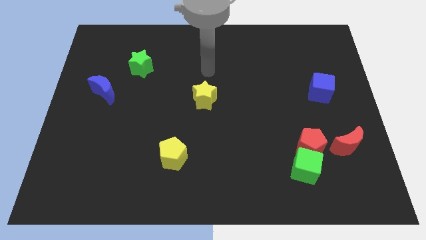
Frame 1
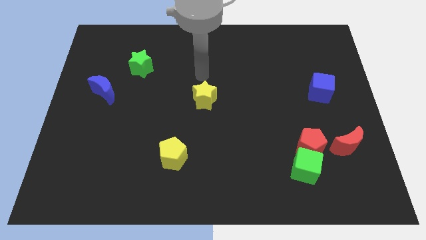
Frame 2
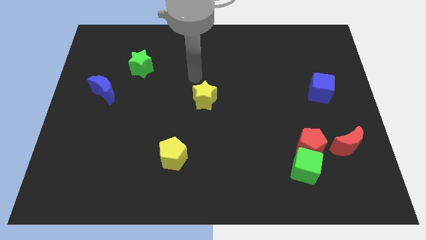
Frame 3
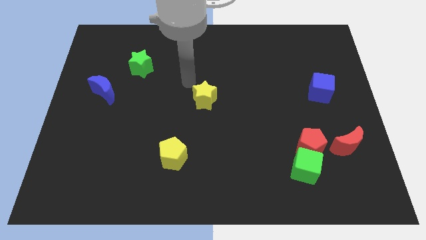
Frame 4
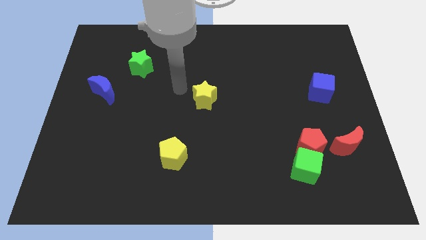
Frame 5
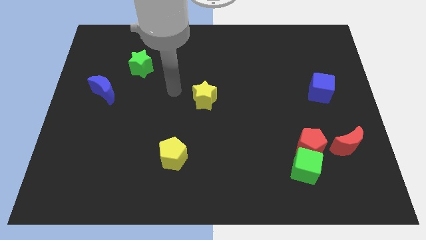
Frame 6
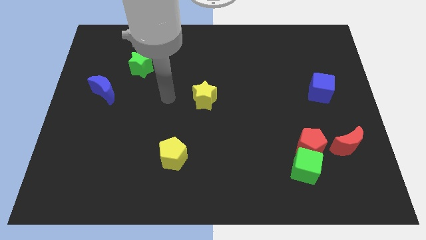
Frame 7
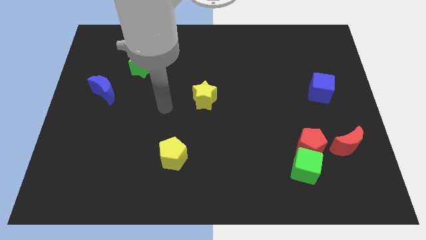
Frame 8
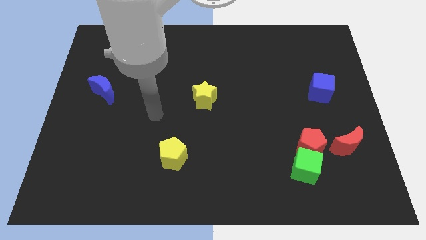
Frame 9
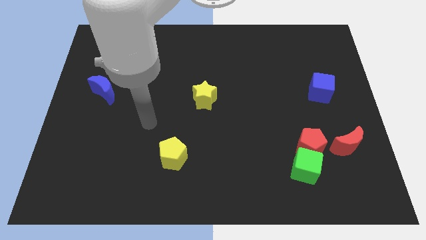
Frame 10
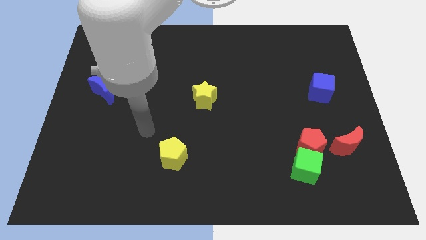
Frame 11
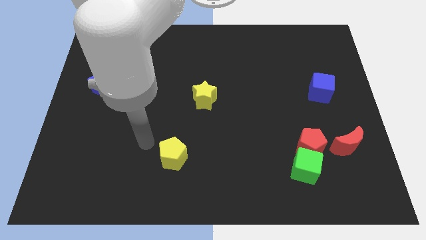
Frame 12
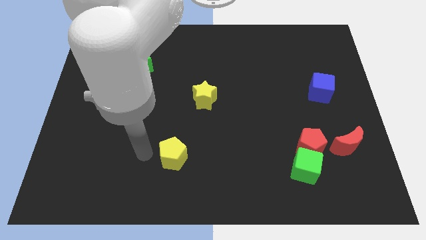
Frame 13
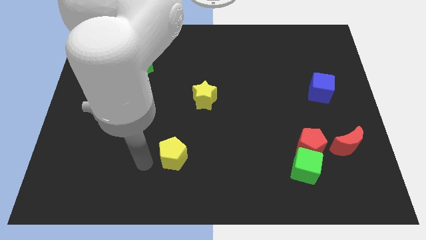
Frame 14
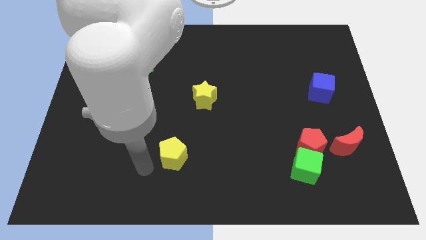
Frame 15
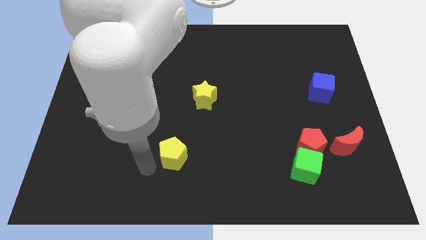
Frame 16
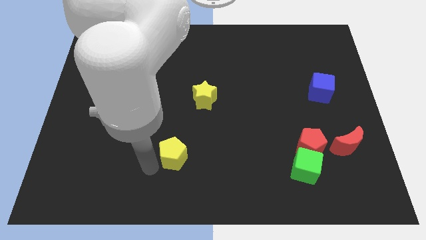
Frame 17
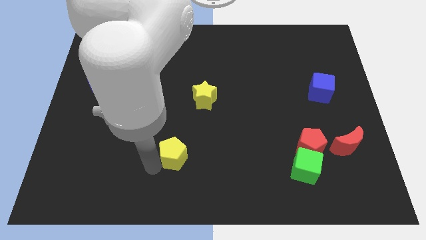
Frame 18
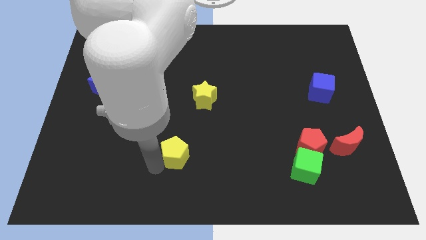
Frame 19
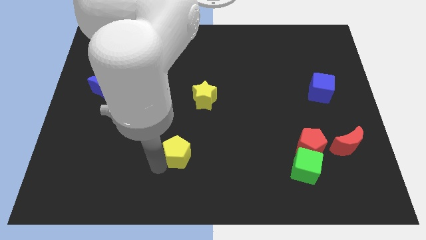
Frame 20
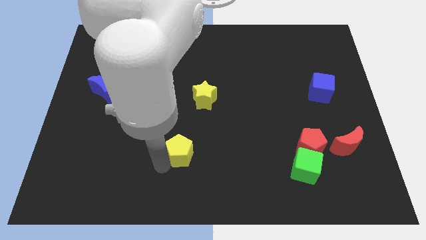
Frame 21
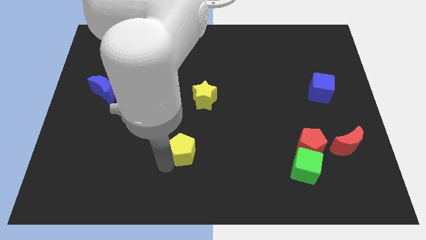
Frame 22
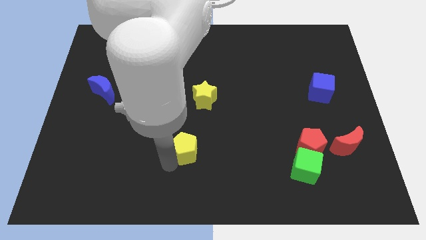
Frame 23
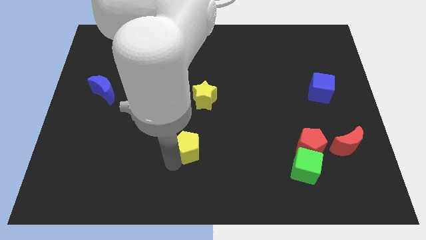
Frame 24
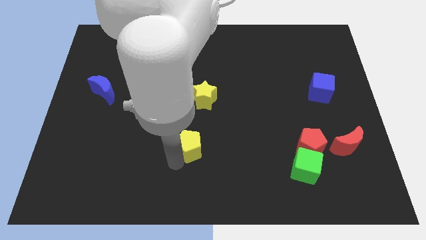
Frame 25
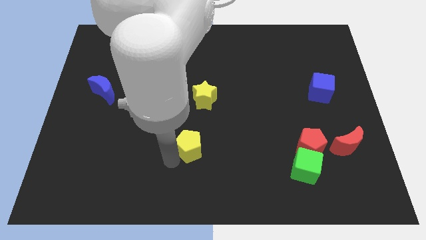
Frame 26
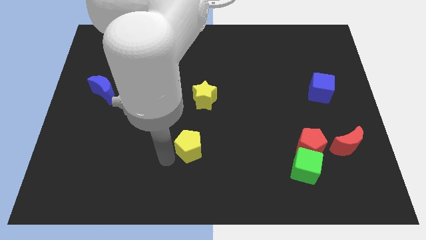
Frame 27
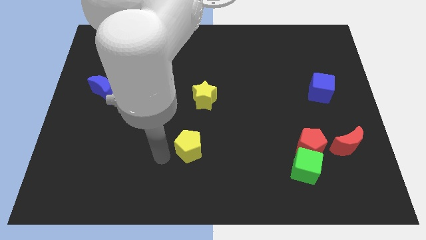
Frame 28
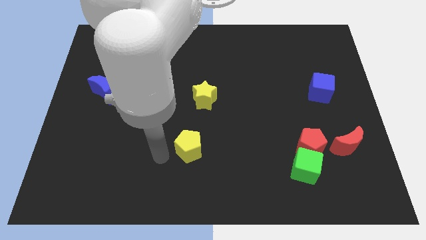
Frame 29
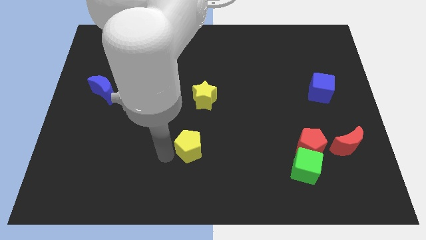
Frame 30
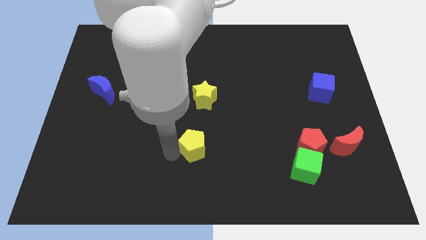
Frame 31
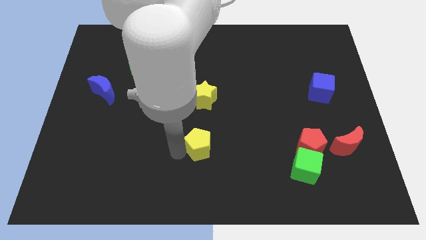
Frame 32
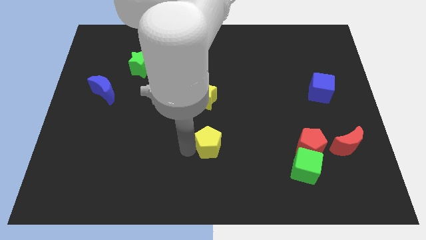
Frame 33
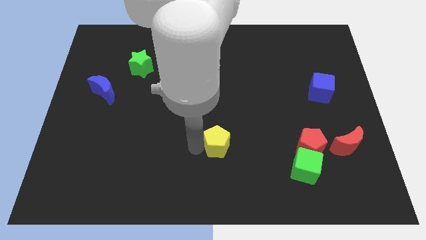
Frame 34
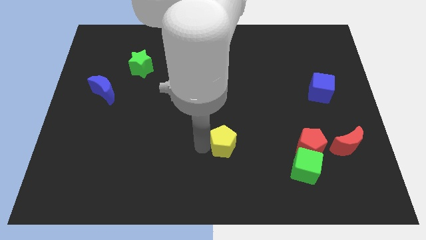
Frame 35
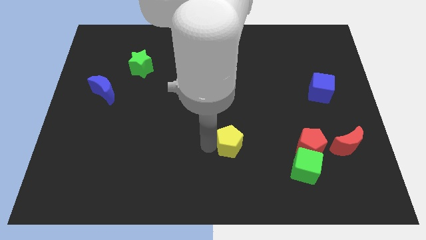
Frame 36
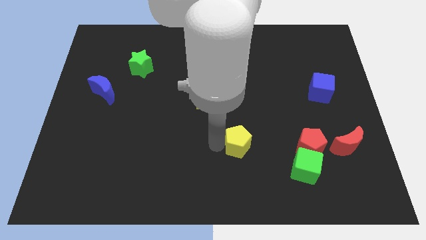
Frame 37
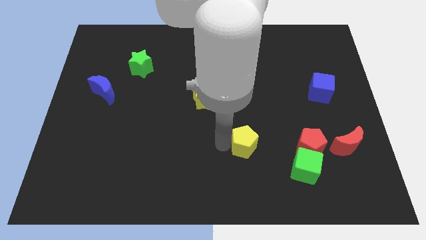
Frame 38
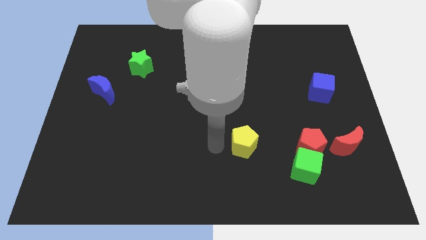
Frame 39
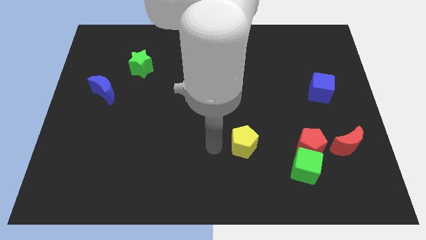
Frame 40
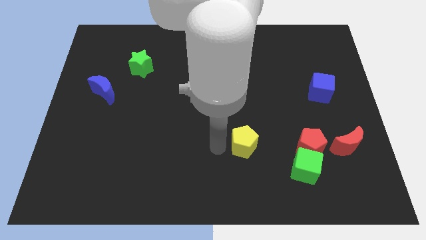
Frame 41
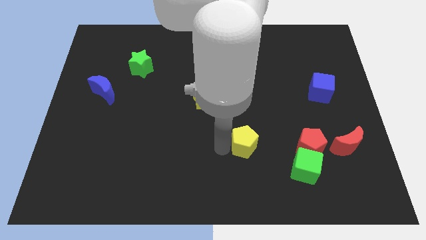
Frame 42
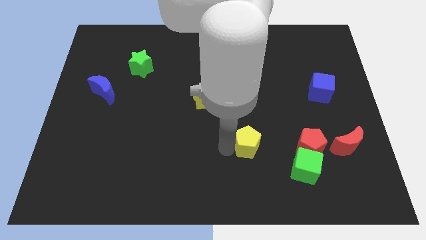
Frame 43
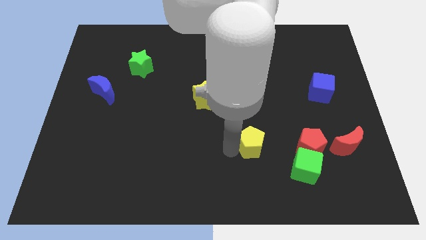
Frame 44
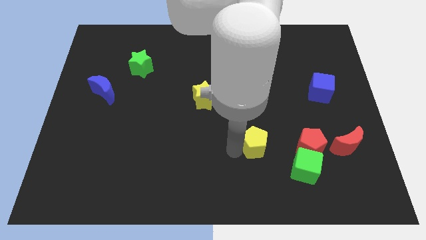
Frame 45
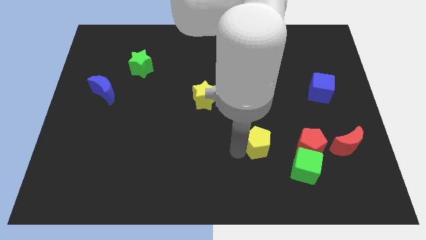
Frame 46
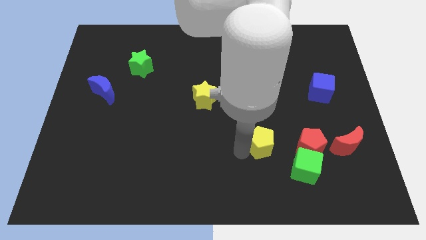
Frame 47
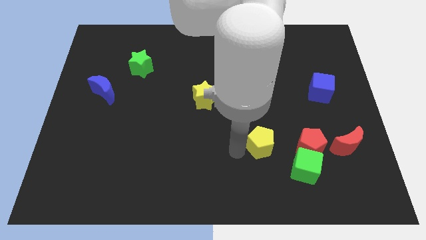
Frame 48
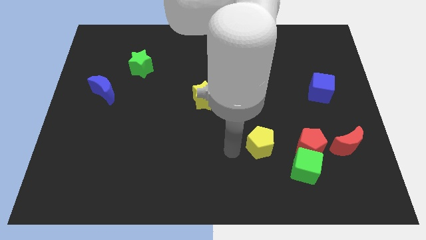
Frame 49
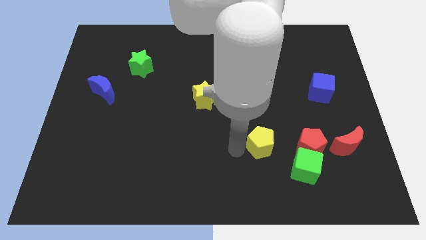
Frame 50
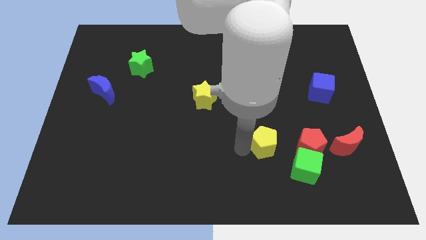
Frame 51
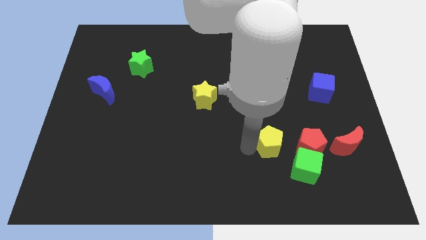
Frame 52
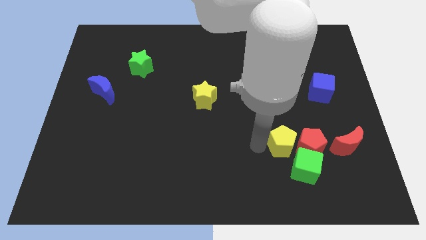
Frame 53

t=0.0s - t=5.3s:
move the yellow pentagon next to the red pentagon

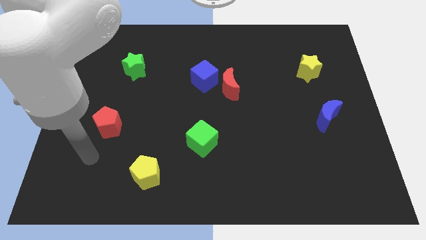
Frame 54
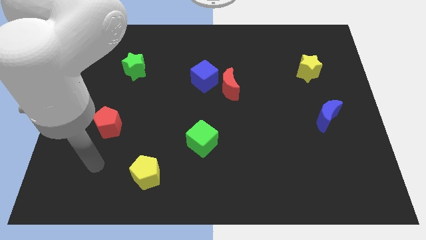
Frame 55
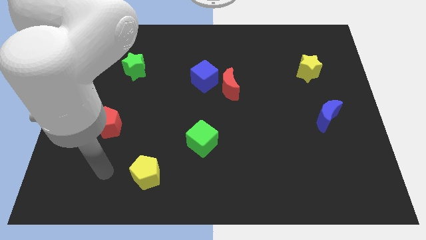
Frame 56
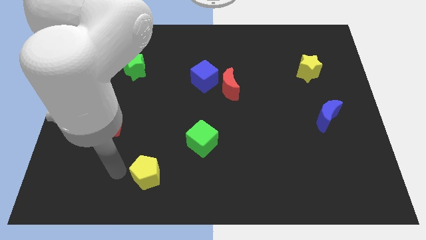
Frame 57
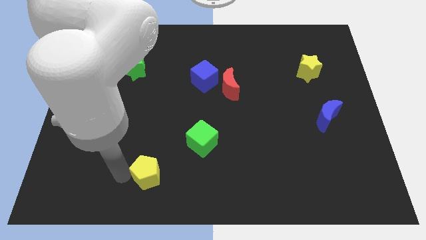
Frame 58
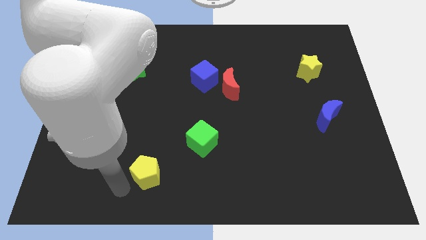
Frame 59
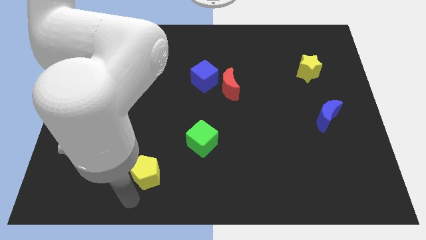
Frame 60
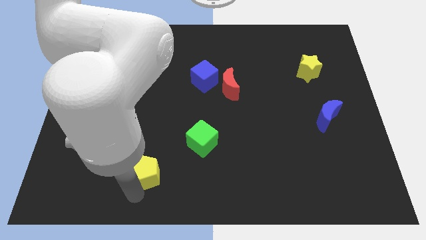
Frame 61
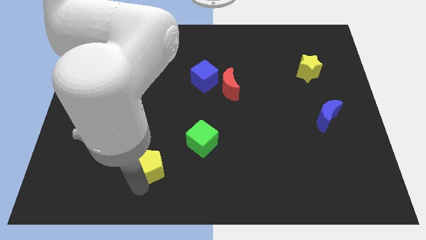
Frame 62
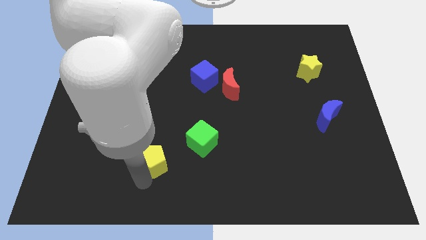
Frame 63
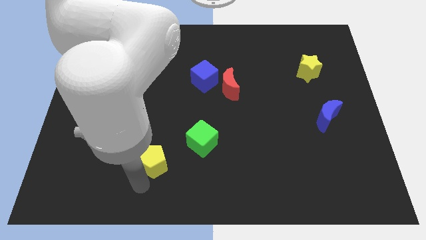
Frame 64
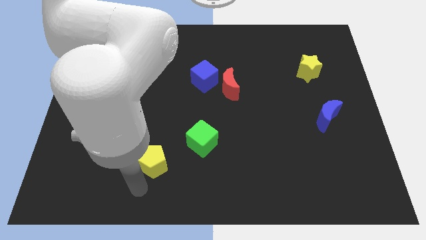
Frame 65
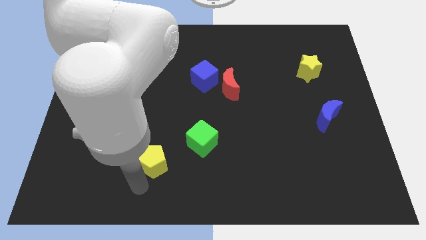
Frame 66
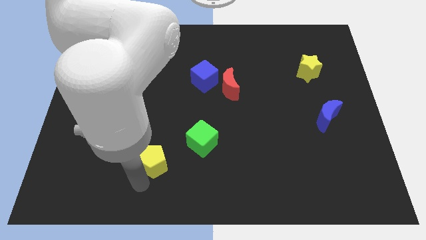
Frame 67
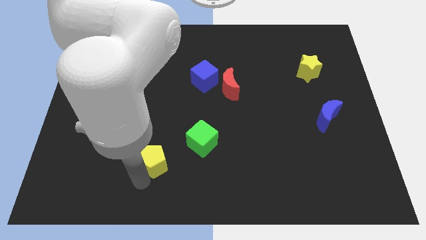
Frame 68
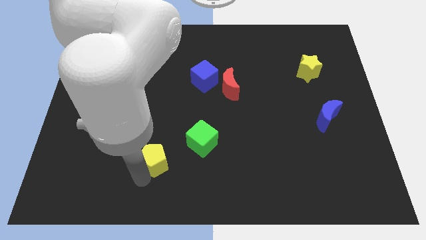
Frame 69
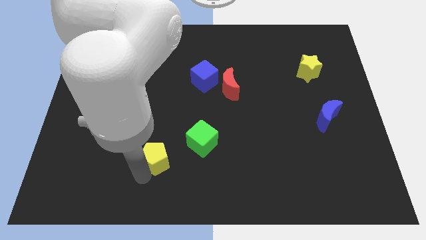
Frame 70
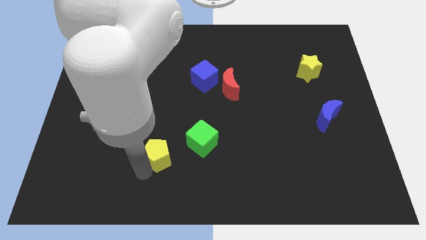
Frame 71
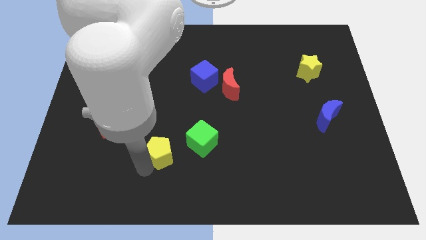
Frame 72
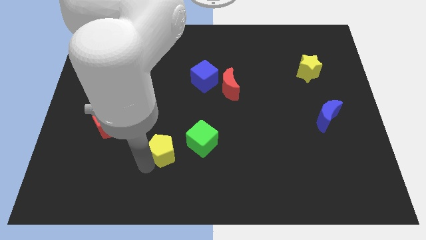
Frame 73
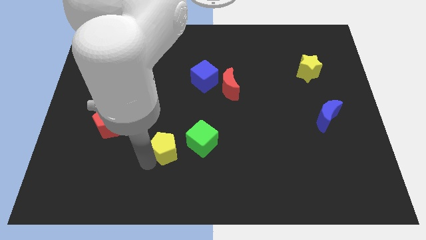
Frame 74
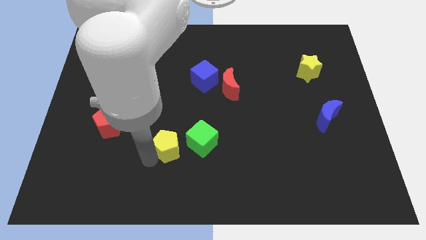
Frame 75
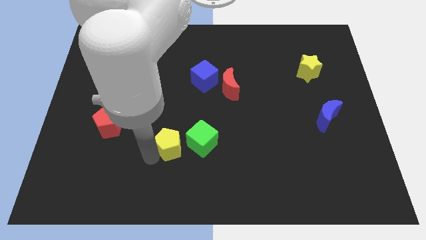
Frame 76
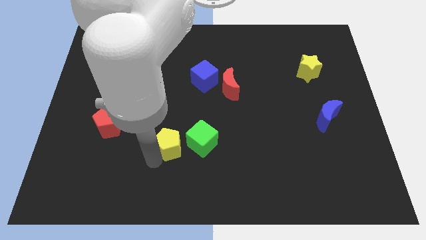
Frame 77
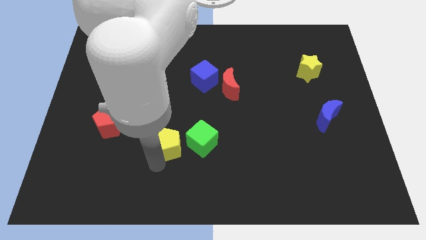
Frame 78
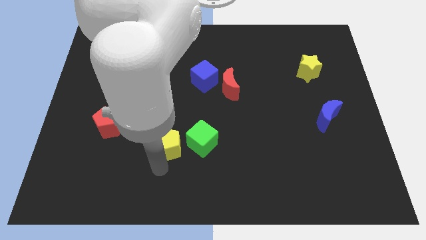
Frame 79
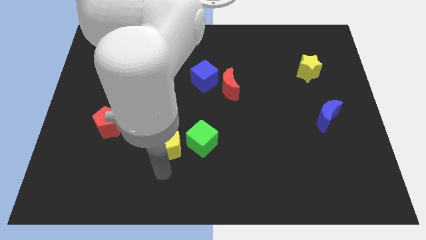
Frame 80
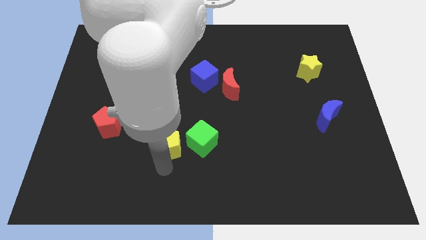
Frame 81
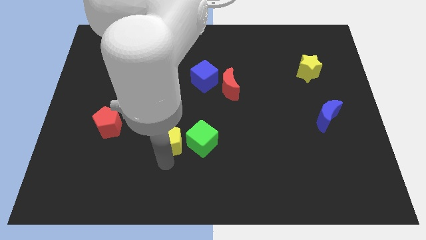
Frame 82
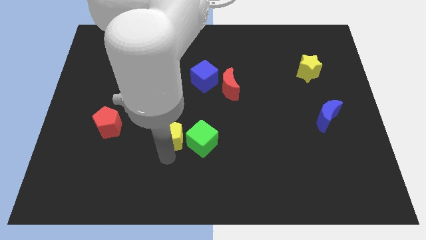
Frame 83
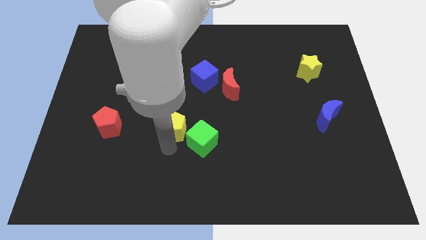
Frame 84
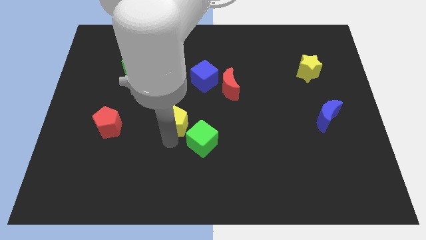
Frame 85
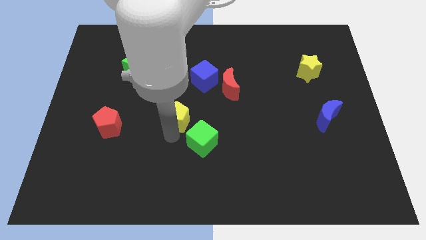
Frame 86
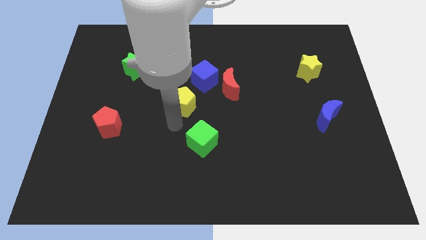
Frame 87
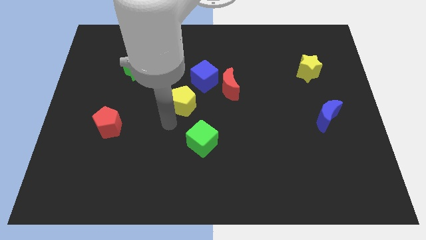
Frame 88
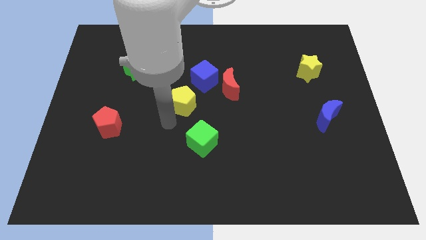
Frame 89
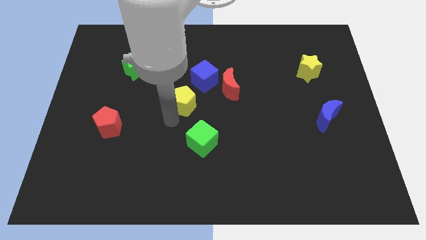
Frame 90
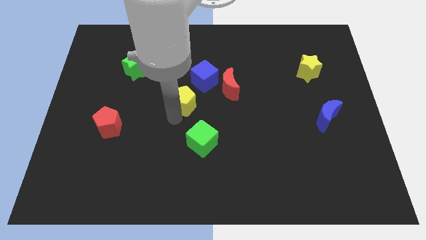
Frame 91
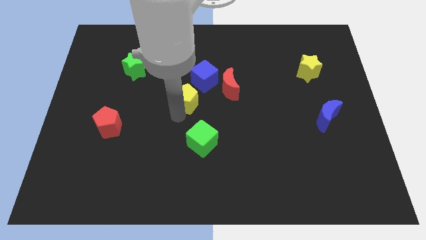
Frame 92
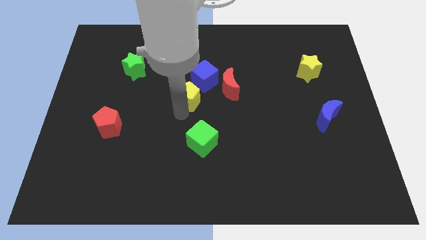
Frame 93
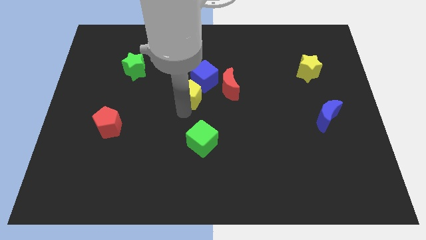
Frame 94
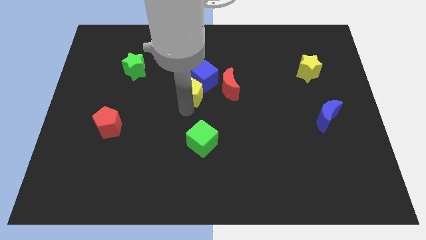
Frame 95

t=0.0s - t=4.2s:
push the yellow pentagon close to the blue cube
